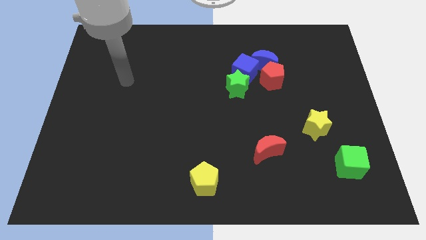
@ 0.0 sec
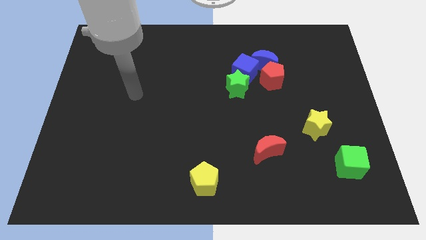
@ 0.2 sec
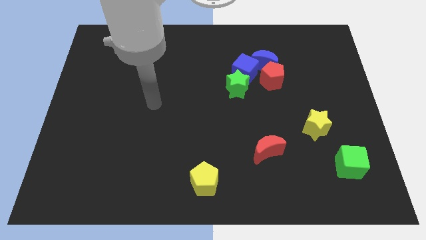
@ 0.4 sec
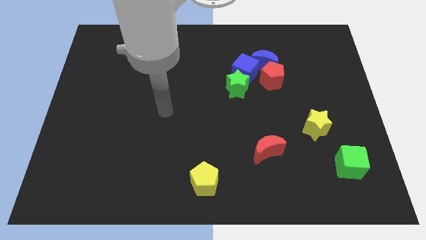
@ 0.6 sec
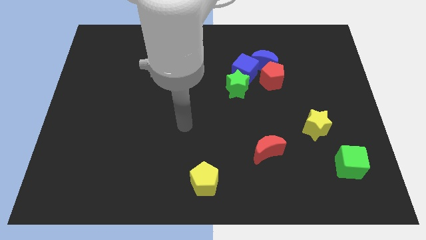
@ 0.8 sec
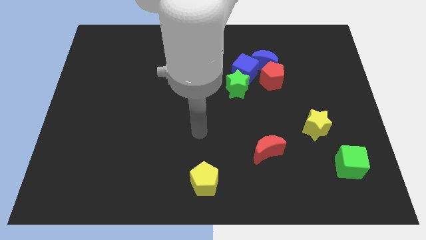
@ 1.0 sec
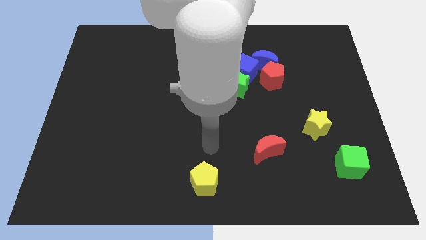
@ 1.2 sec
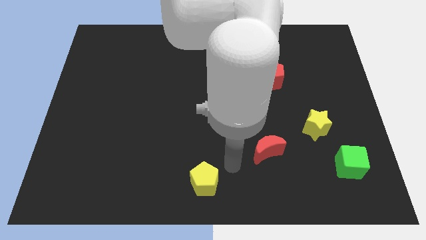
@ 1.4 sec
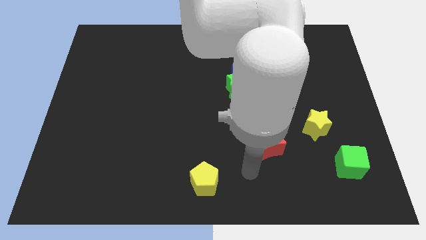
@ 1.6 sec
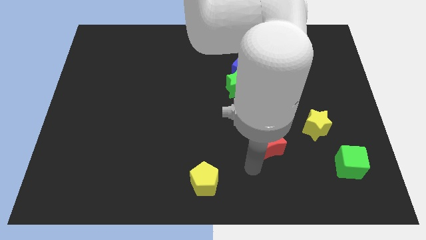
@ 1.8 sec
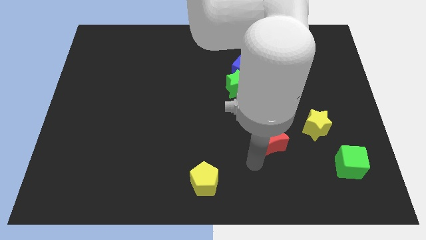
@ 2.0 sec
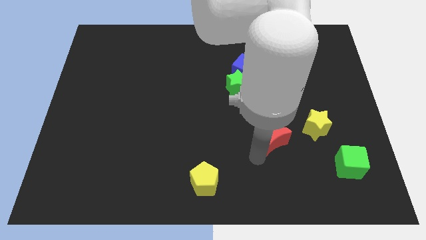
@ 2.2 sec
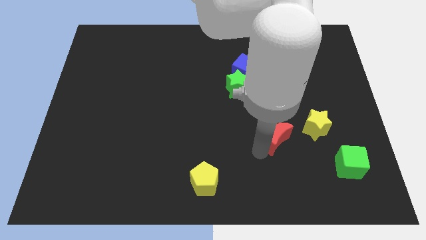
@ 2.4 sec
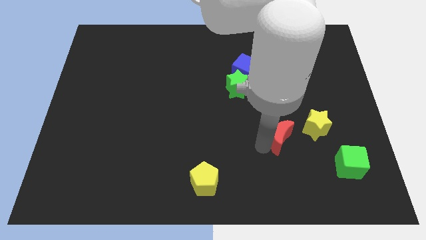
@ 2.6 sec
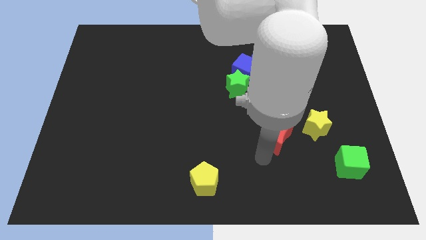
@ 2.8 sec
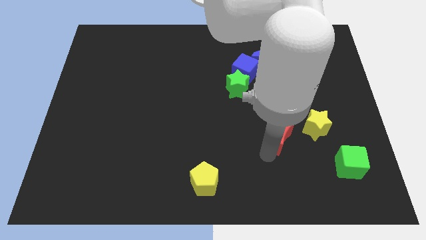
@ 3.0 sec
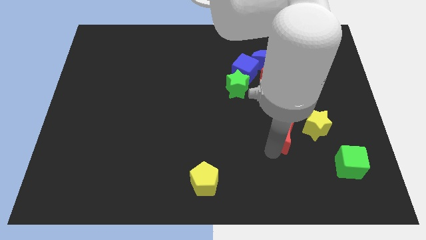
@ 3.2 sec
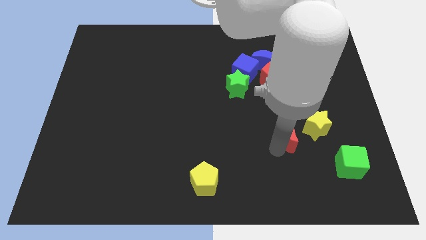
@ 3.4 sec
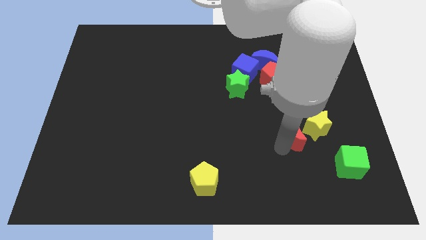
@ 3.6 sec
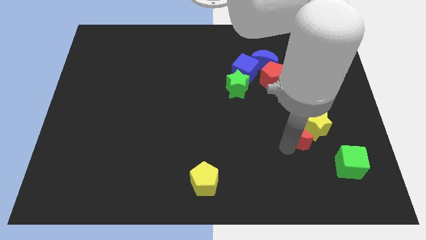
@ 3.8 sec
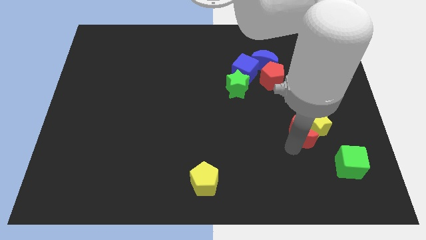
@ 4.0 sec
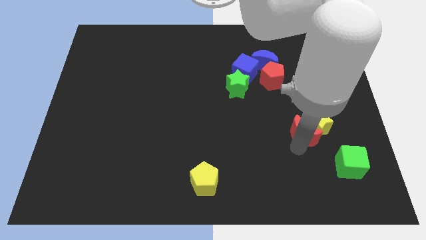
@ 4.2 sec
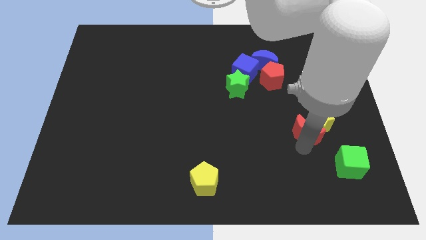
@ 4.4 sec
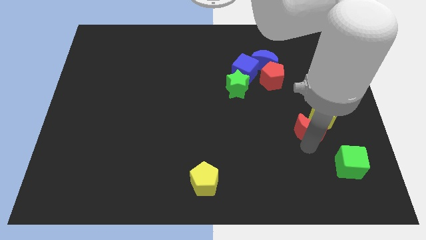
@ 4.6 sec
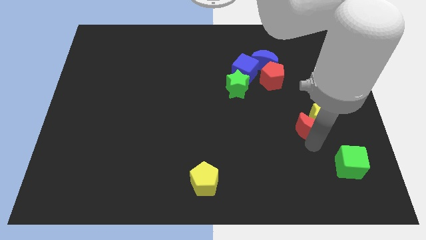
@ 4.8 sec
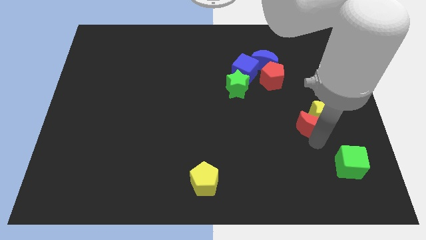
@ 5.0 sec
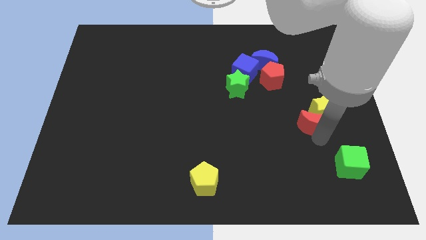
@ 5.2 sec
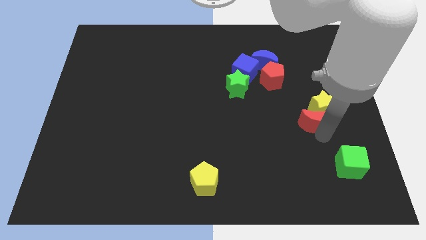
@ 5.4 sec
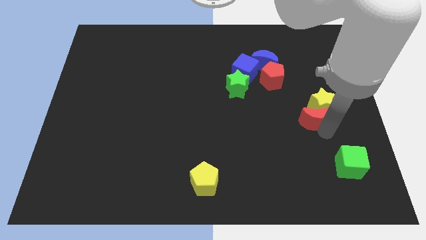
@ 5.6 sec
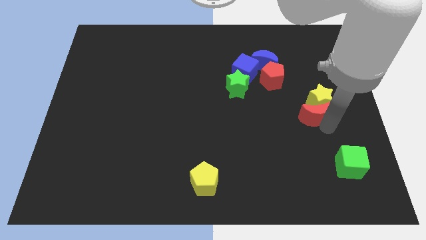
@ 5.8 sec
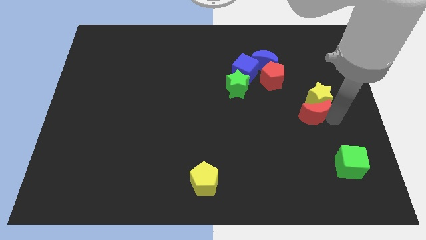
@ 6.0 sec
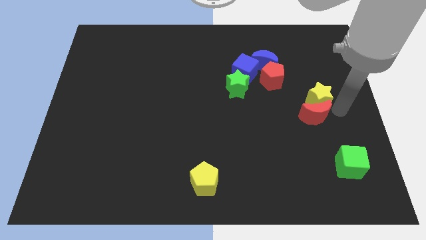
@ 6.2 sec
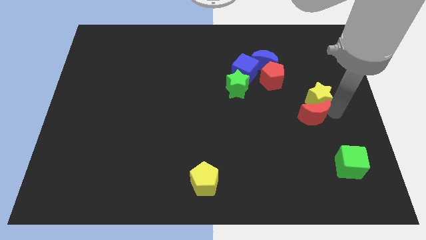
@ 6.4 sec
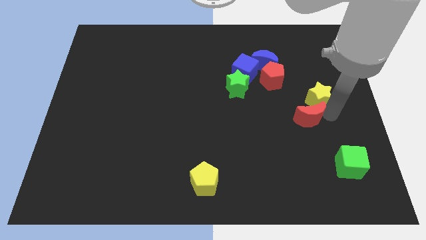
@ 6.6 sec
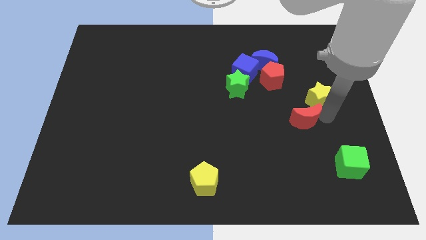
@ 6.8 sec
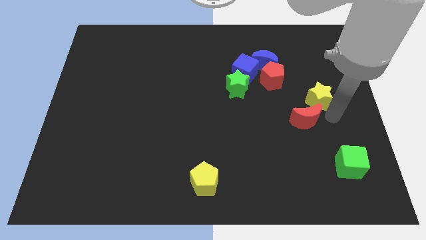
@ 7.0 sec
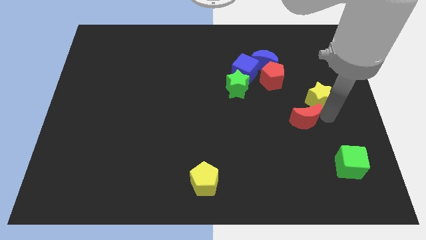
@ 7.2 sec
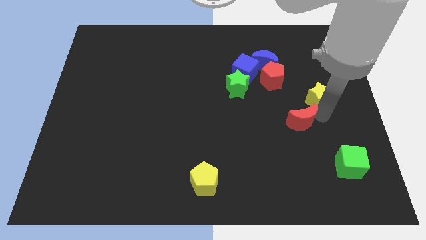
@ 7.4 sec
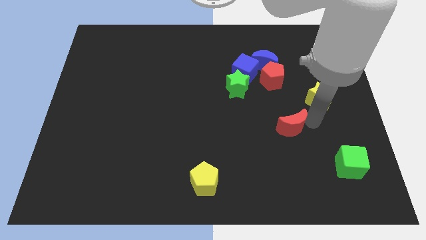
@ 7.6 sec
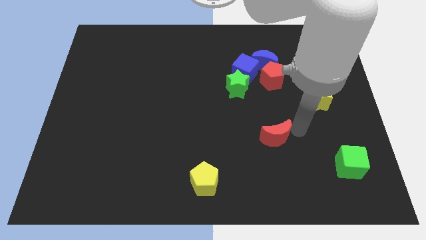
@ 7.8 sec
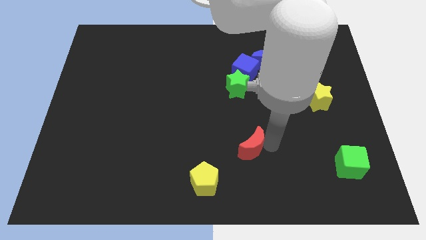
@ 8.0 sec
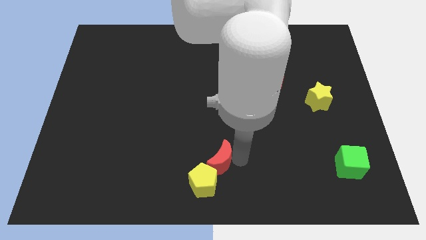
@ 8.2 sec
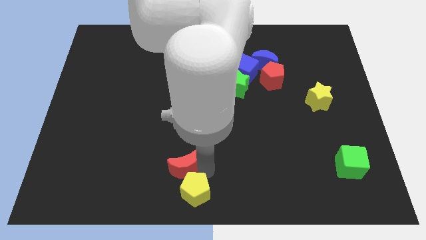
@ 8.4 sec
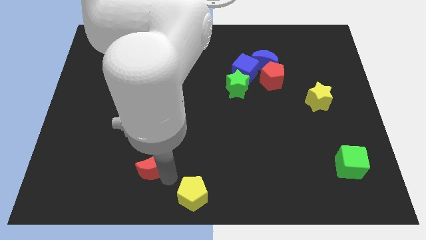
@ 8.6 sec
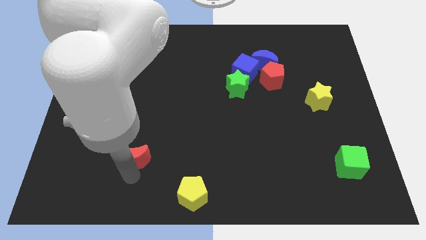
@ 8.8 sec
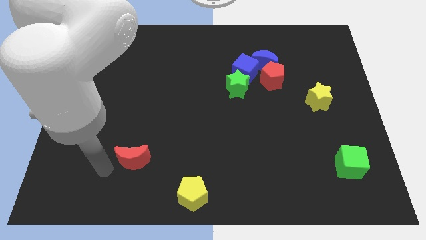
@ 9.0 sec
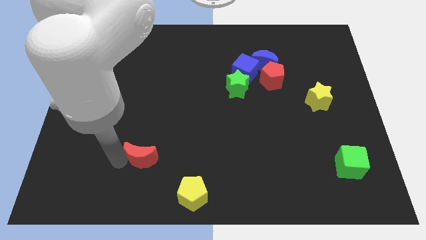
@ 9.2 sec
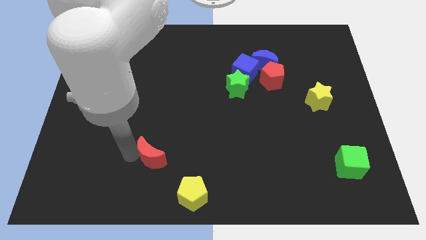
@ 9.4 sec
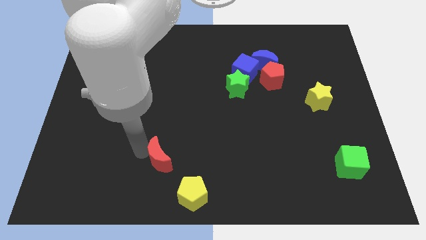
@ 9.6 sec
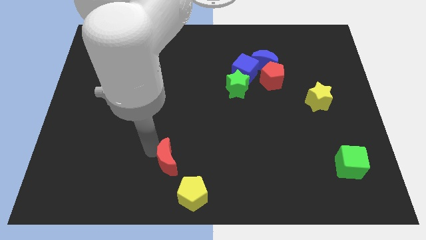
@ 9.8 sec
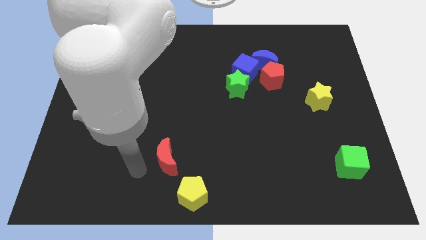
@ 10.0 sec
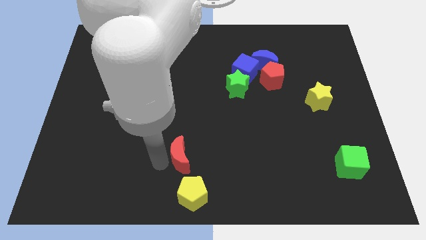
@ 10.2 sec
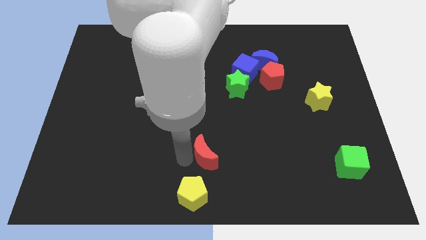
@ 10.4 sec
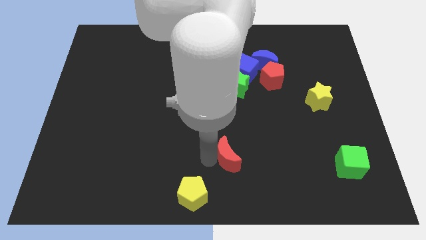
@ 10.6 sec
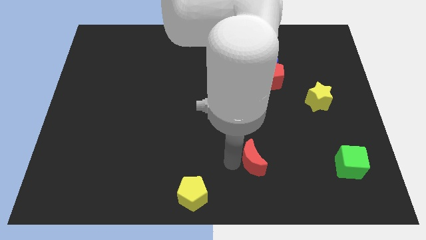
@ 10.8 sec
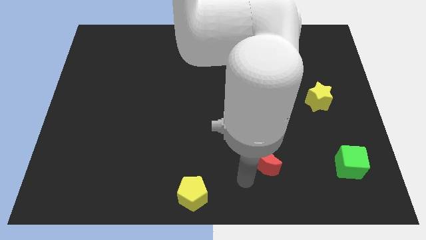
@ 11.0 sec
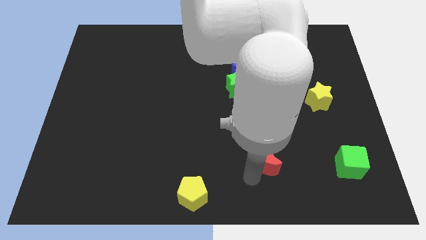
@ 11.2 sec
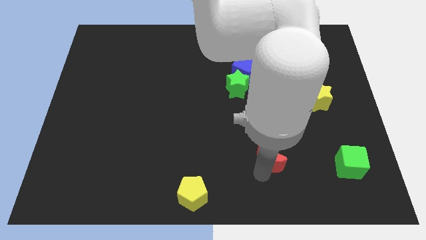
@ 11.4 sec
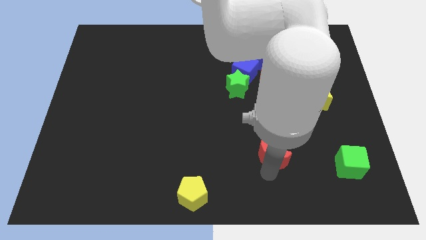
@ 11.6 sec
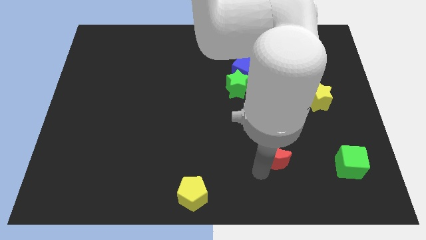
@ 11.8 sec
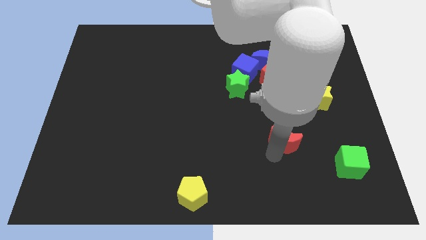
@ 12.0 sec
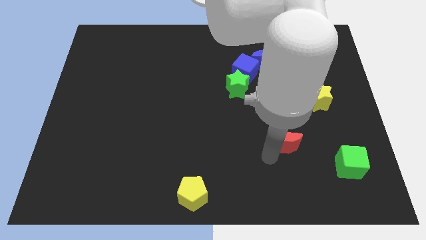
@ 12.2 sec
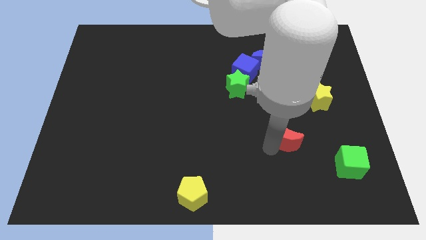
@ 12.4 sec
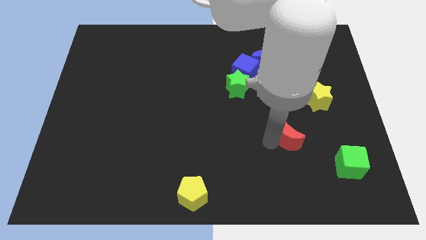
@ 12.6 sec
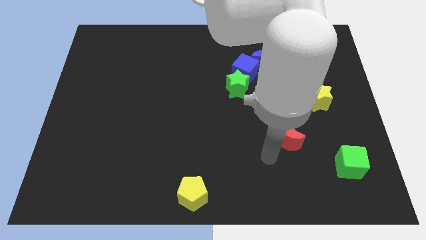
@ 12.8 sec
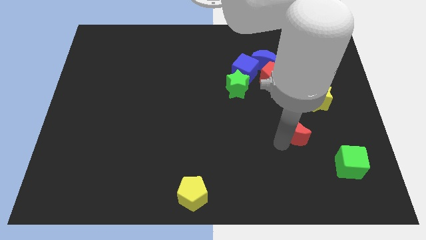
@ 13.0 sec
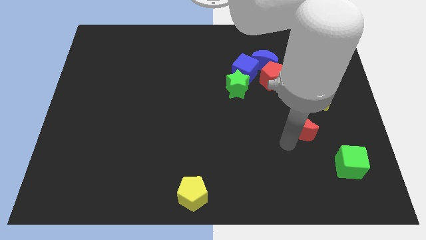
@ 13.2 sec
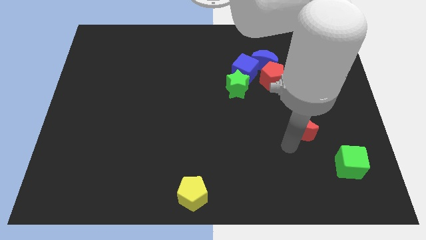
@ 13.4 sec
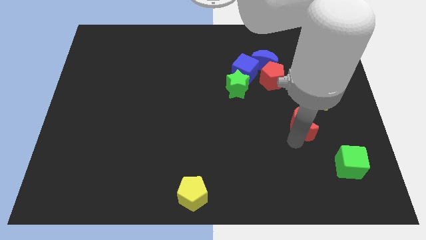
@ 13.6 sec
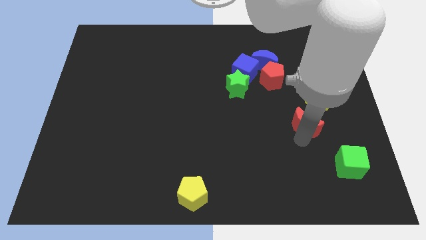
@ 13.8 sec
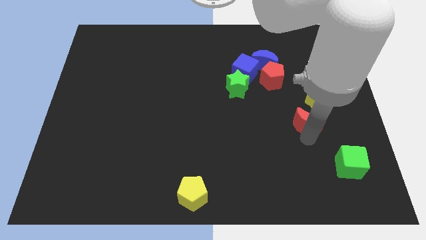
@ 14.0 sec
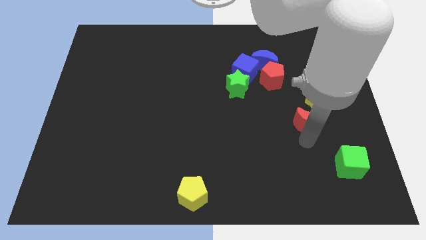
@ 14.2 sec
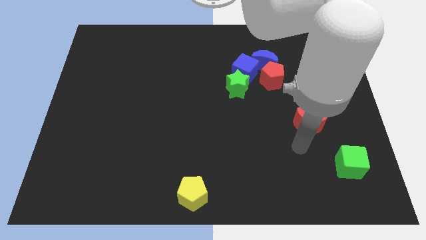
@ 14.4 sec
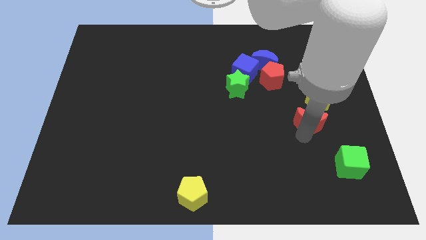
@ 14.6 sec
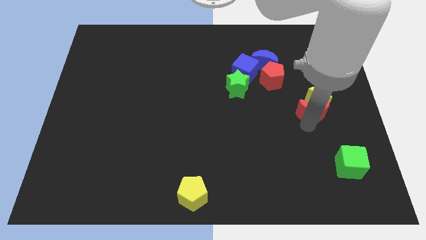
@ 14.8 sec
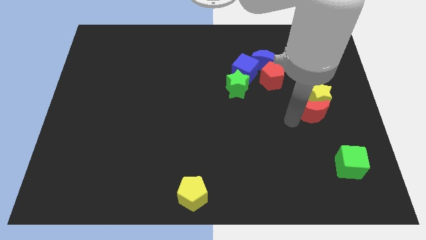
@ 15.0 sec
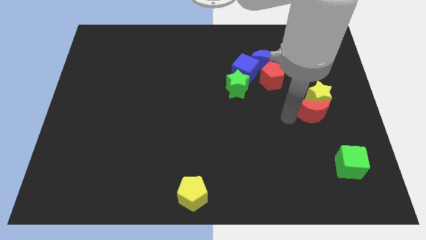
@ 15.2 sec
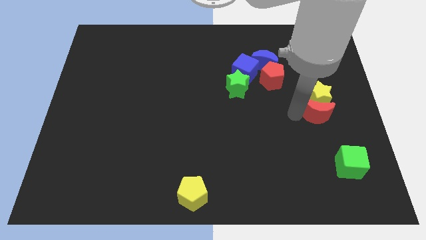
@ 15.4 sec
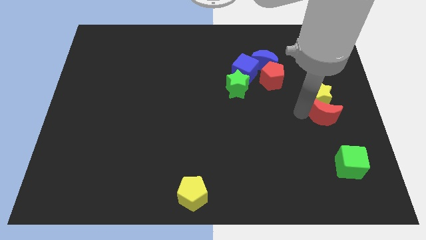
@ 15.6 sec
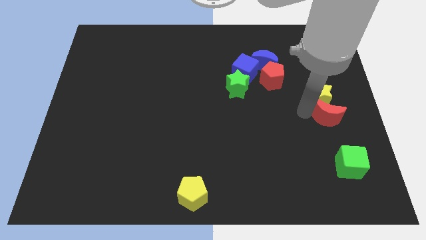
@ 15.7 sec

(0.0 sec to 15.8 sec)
slide the red moon to the right side
